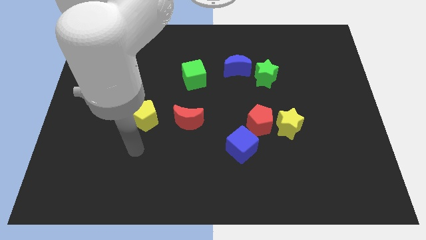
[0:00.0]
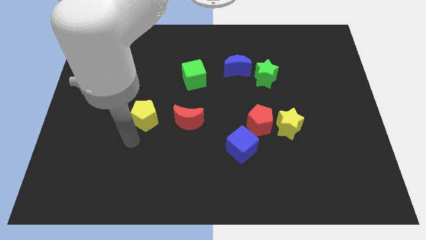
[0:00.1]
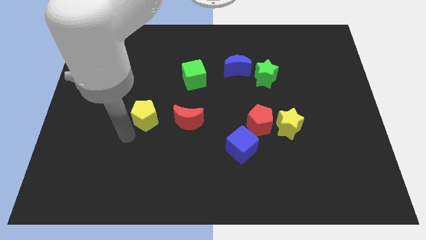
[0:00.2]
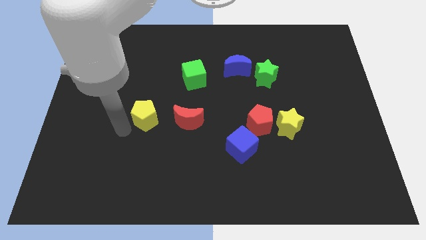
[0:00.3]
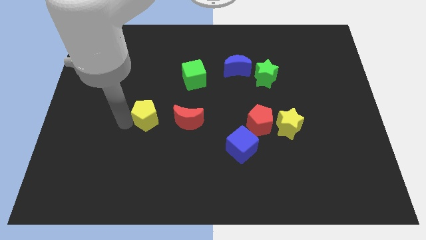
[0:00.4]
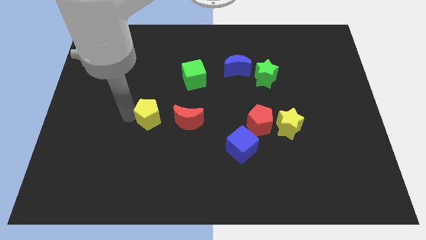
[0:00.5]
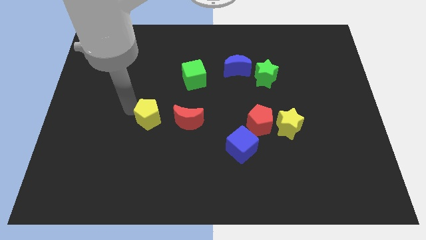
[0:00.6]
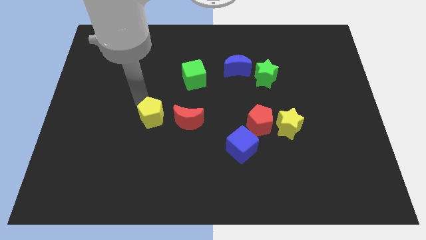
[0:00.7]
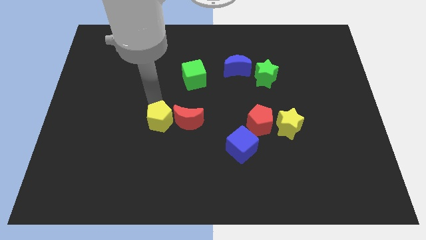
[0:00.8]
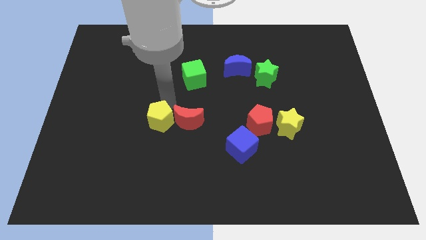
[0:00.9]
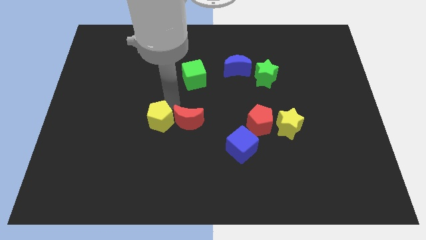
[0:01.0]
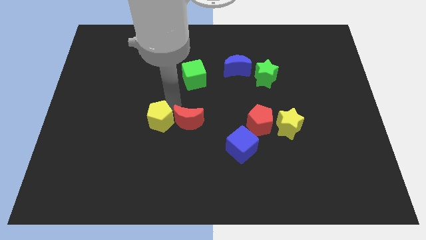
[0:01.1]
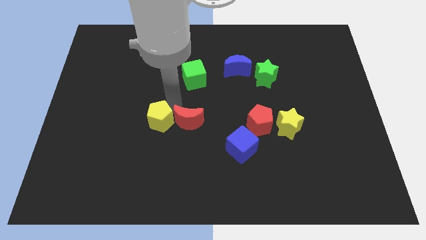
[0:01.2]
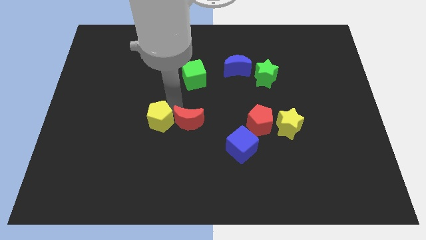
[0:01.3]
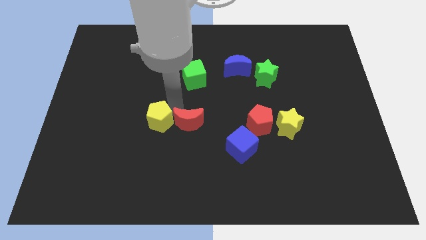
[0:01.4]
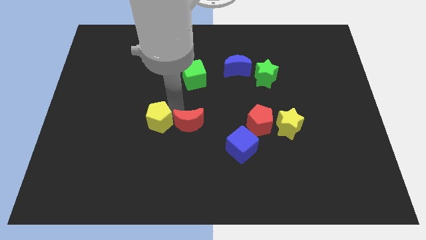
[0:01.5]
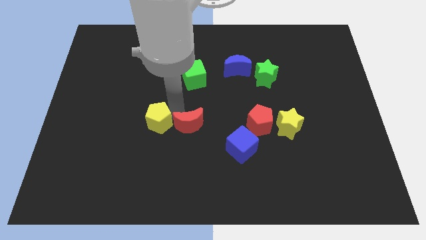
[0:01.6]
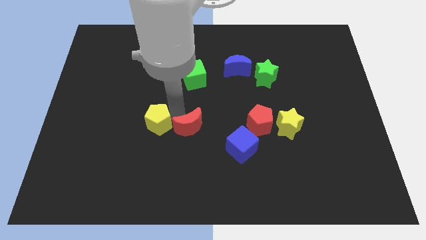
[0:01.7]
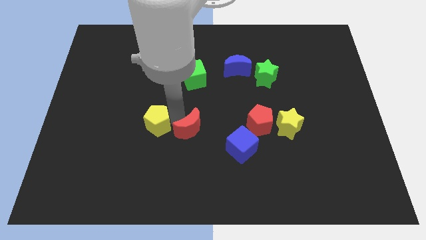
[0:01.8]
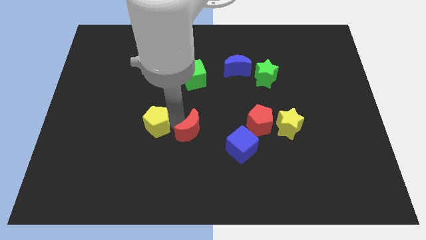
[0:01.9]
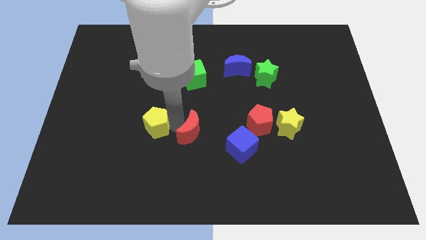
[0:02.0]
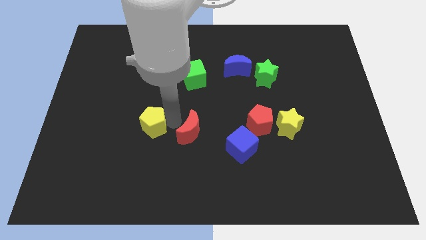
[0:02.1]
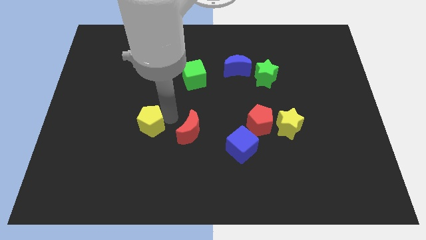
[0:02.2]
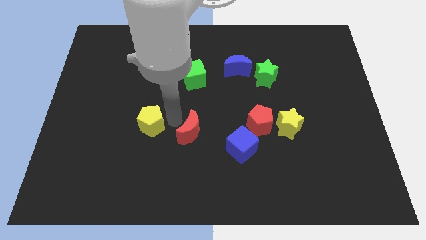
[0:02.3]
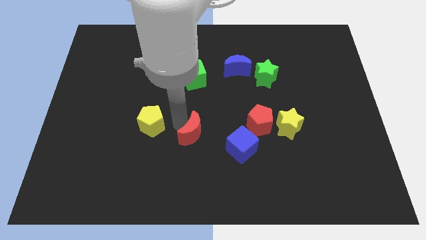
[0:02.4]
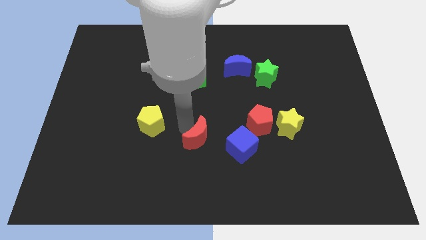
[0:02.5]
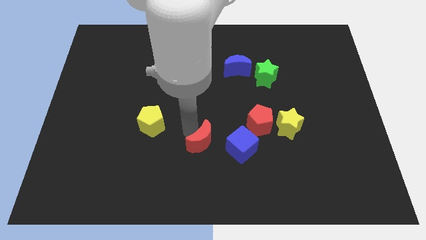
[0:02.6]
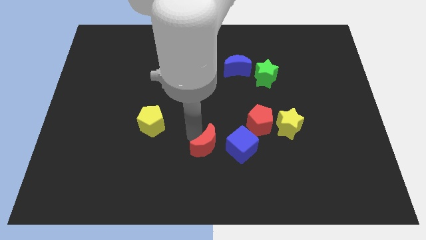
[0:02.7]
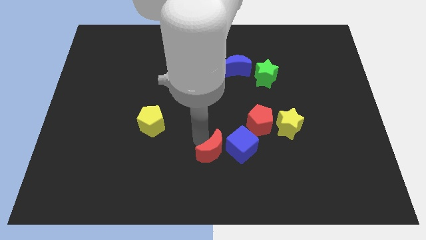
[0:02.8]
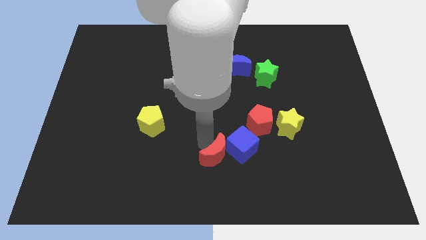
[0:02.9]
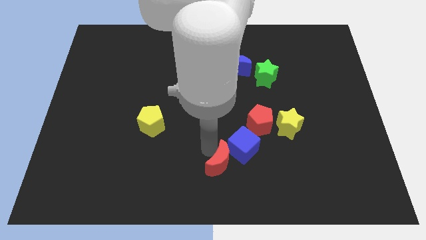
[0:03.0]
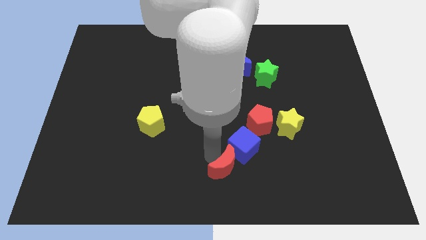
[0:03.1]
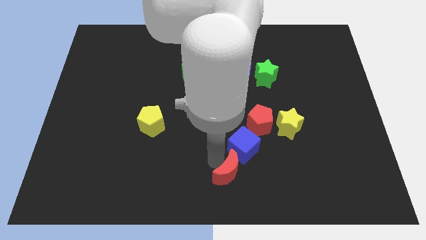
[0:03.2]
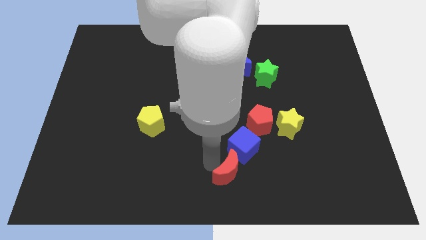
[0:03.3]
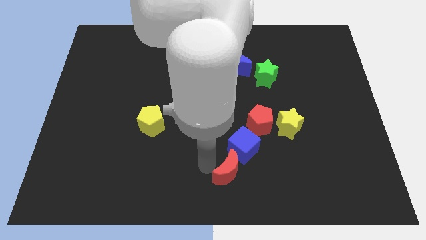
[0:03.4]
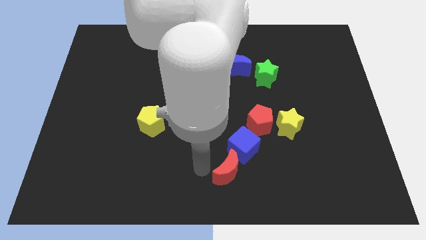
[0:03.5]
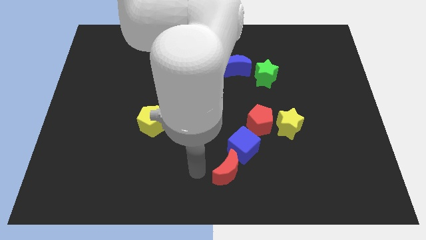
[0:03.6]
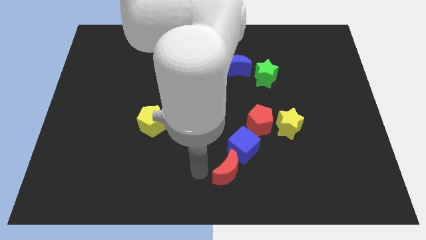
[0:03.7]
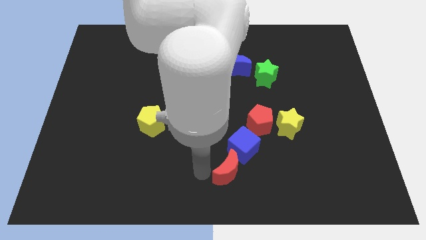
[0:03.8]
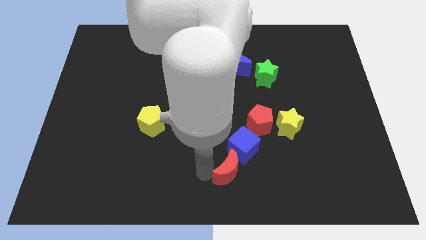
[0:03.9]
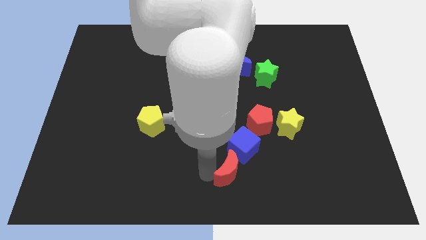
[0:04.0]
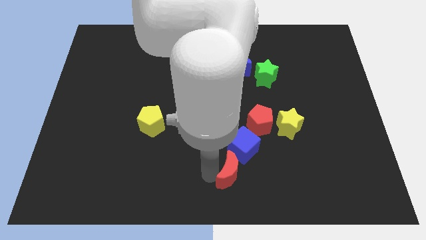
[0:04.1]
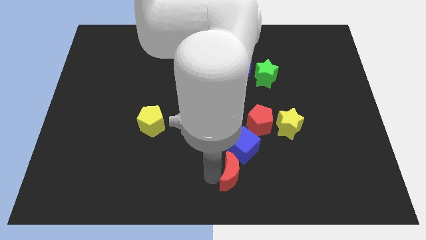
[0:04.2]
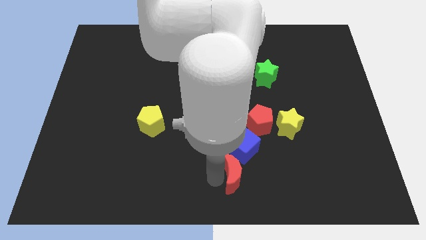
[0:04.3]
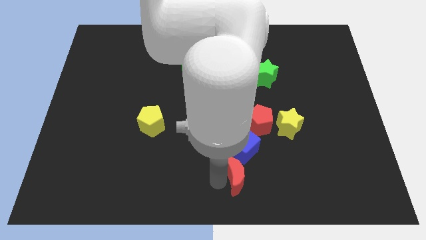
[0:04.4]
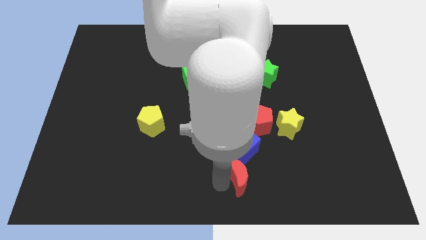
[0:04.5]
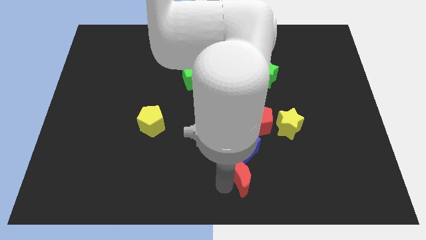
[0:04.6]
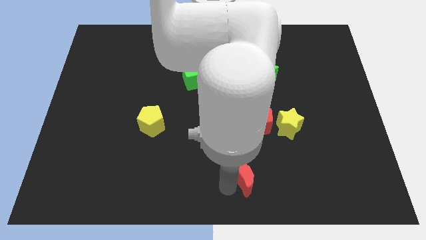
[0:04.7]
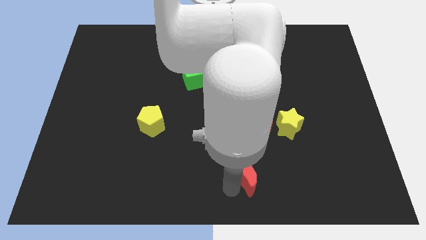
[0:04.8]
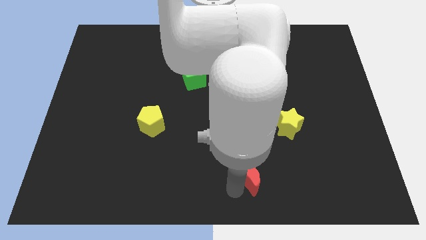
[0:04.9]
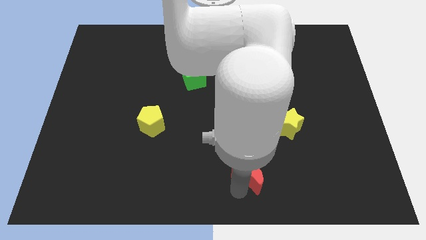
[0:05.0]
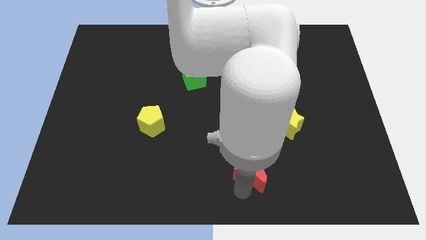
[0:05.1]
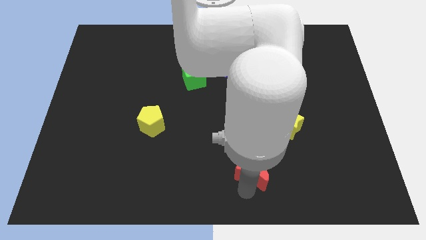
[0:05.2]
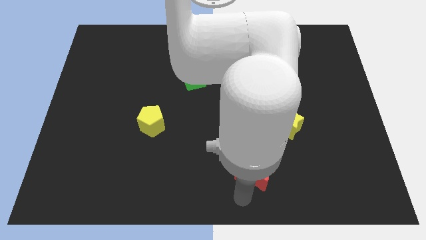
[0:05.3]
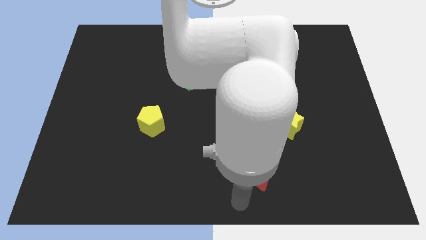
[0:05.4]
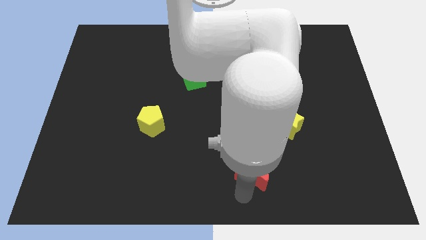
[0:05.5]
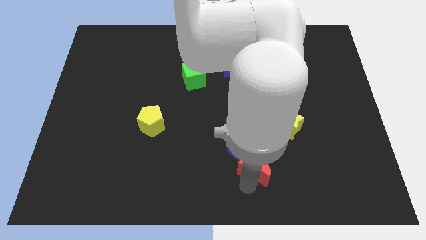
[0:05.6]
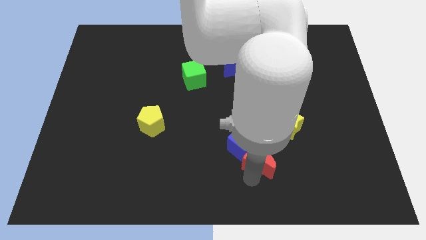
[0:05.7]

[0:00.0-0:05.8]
move the red moon diagonally down and to the left of the yellow star

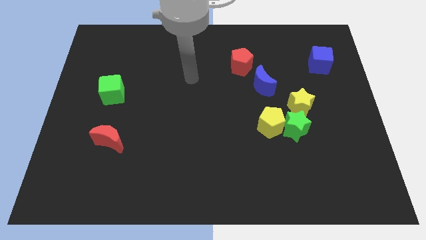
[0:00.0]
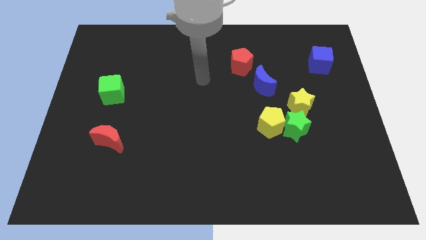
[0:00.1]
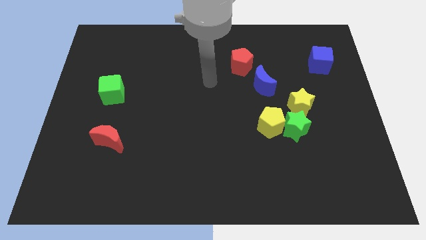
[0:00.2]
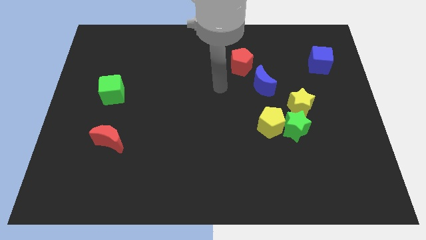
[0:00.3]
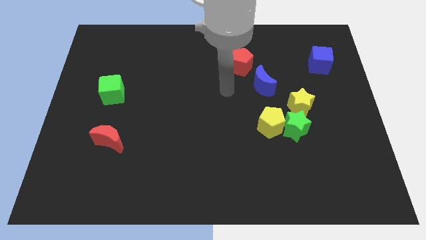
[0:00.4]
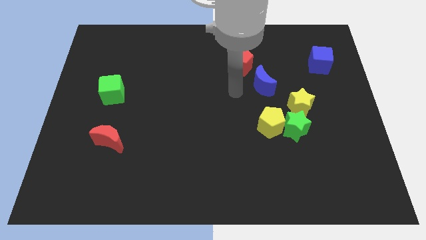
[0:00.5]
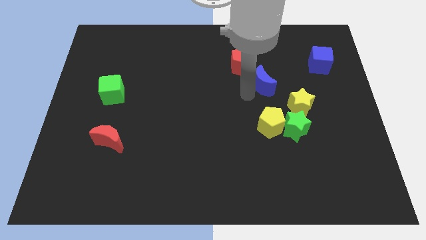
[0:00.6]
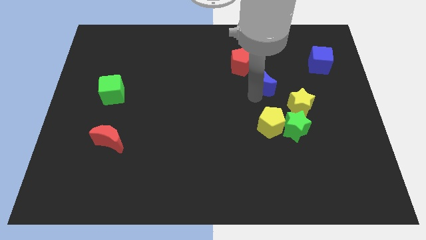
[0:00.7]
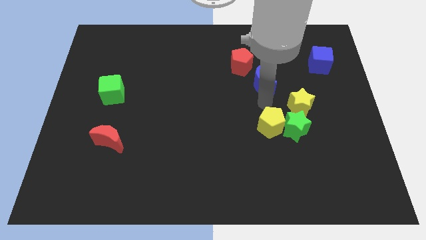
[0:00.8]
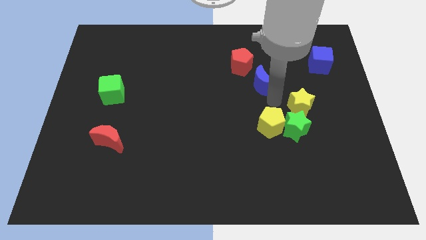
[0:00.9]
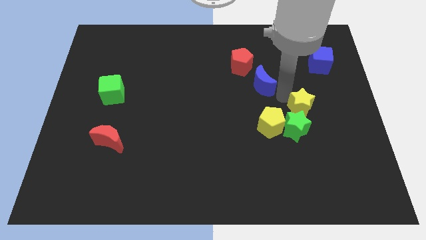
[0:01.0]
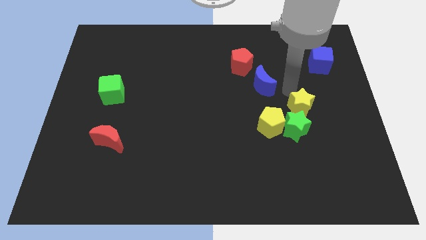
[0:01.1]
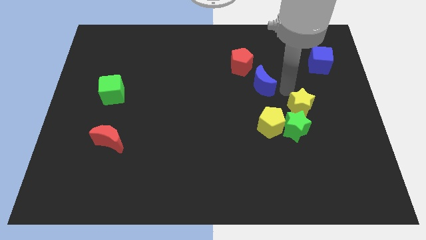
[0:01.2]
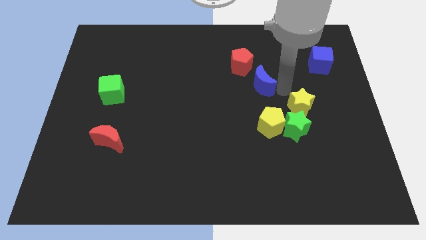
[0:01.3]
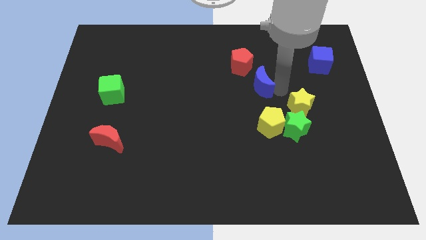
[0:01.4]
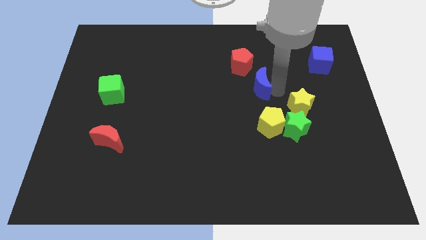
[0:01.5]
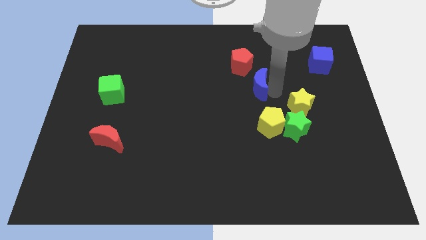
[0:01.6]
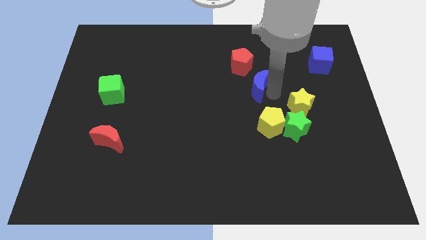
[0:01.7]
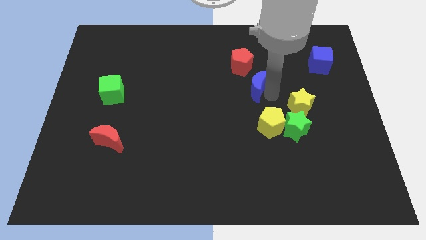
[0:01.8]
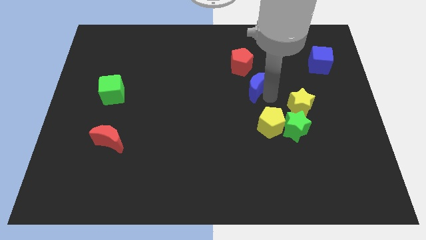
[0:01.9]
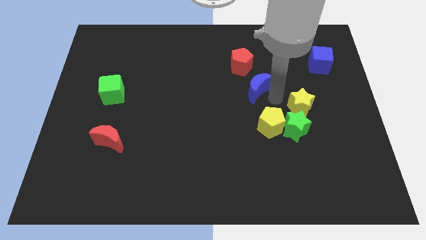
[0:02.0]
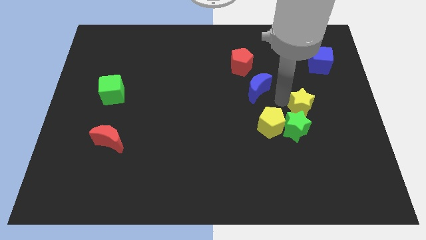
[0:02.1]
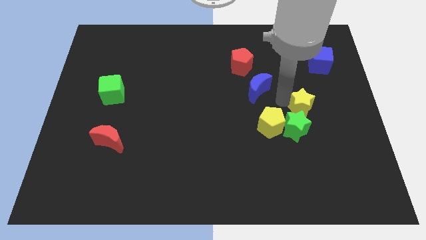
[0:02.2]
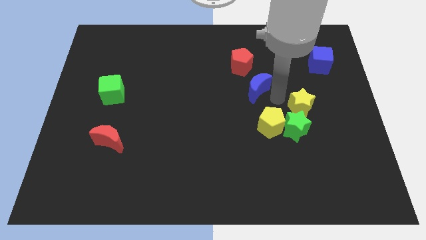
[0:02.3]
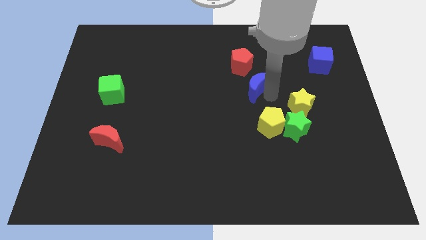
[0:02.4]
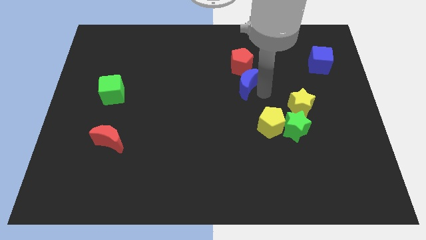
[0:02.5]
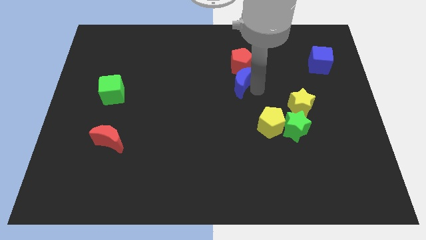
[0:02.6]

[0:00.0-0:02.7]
push the blue moon to the bottom left side of the red pentagon
